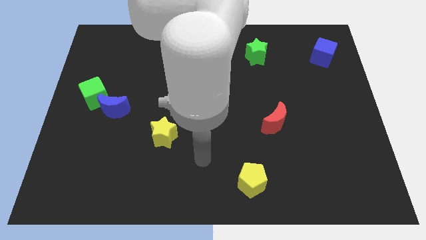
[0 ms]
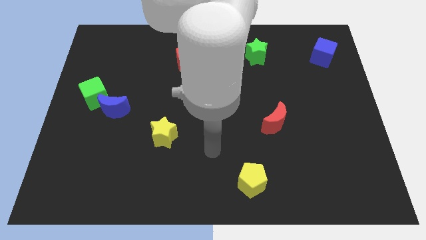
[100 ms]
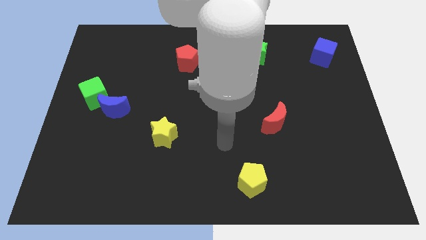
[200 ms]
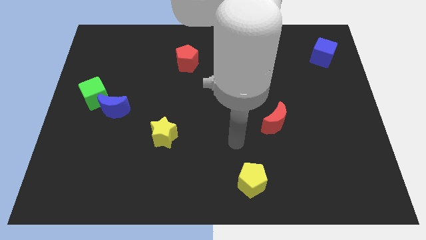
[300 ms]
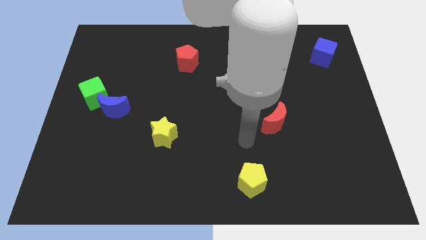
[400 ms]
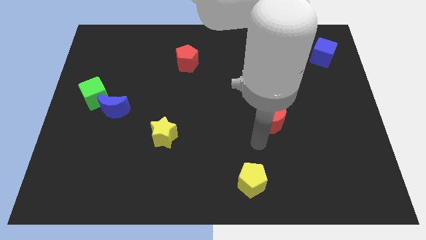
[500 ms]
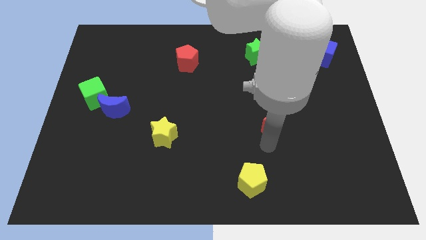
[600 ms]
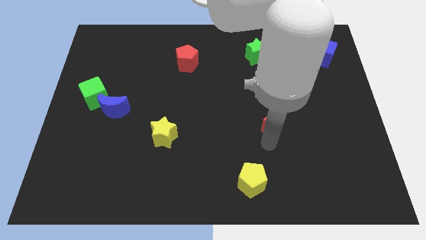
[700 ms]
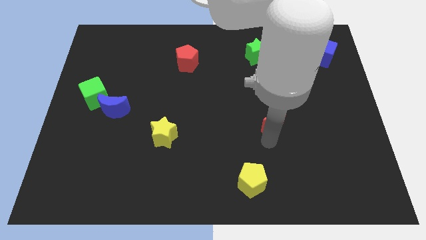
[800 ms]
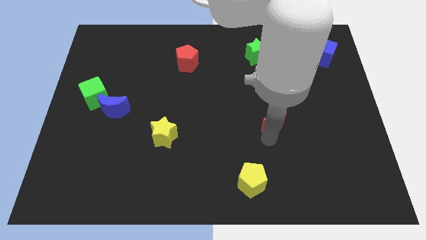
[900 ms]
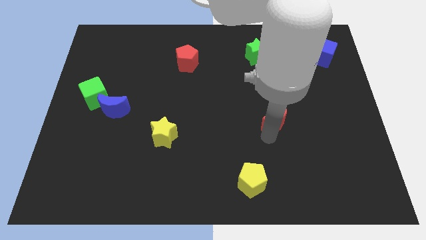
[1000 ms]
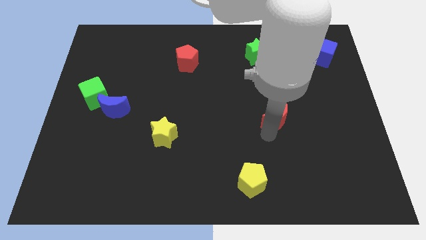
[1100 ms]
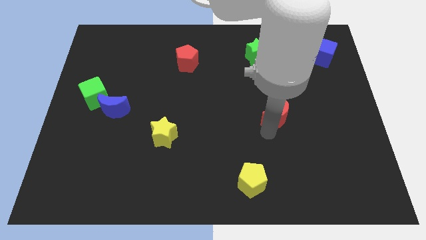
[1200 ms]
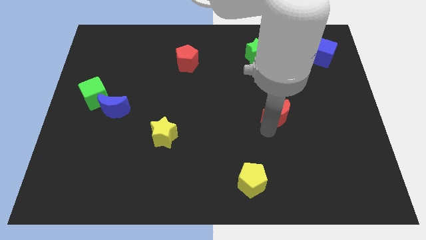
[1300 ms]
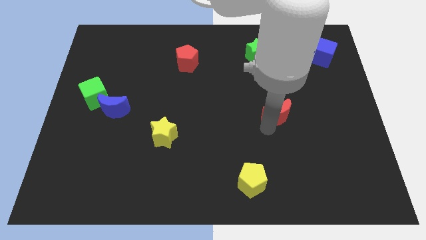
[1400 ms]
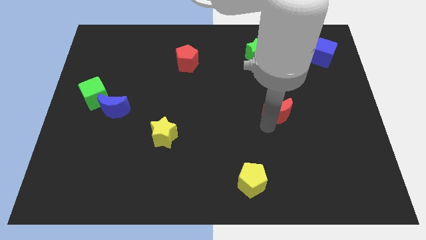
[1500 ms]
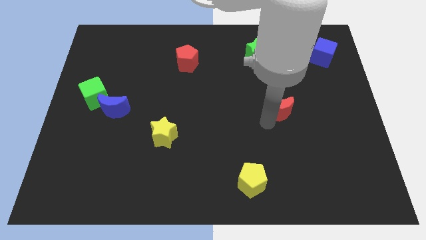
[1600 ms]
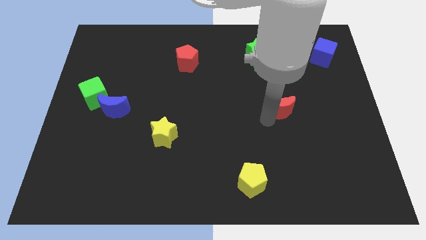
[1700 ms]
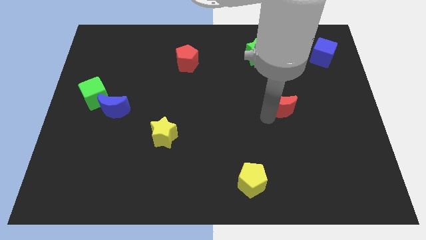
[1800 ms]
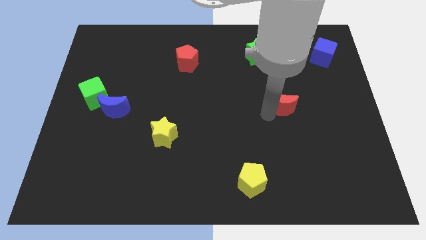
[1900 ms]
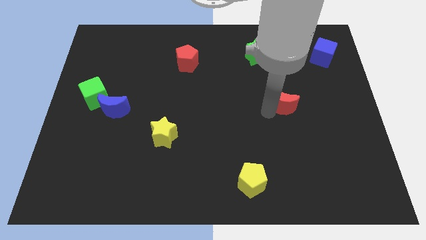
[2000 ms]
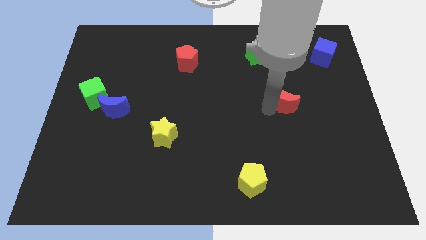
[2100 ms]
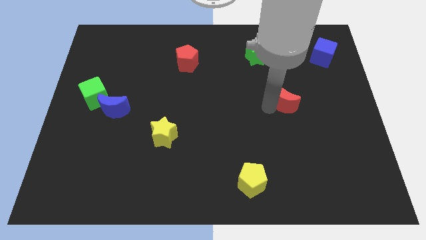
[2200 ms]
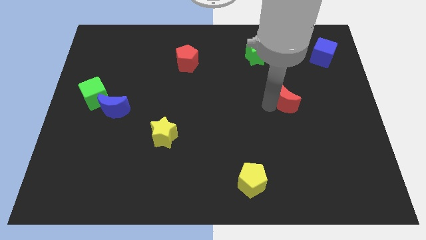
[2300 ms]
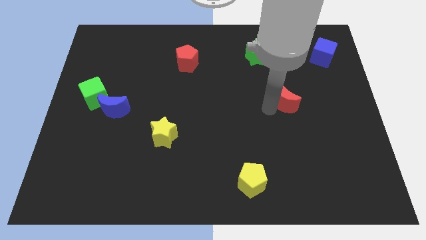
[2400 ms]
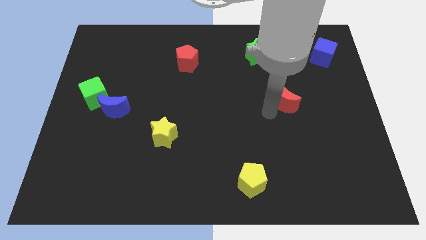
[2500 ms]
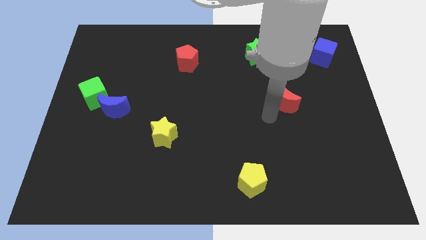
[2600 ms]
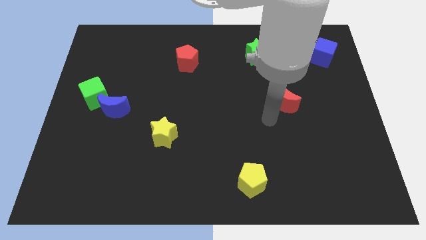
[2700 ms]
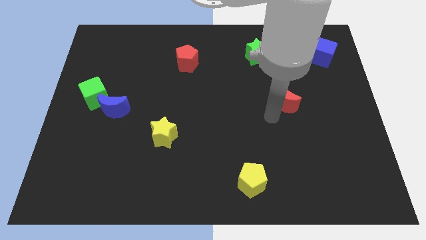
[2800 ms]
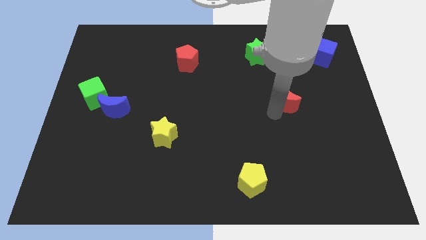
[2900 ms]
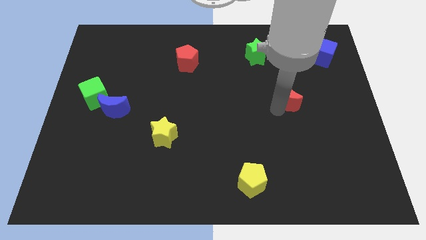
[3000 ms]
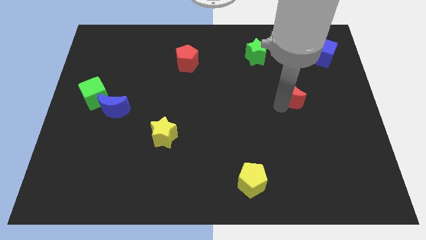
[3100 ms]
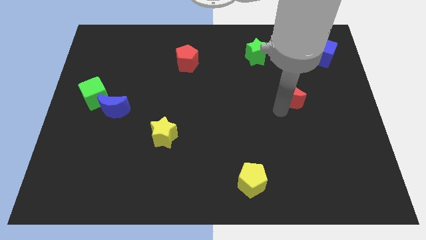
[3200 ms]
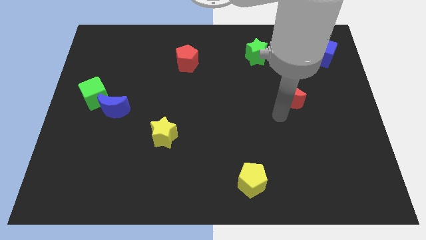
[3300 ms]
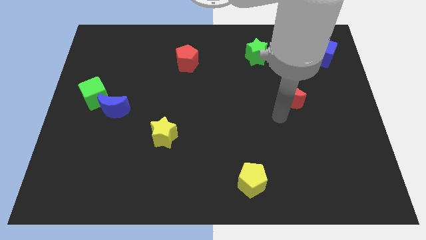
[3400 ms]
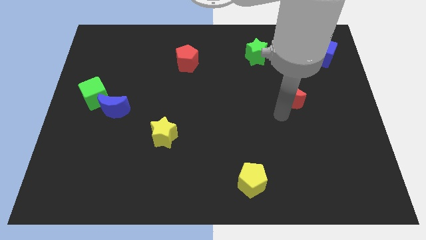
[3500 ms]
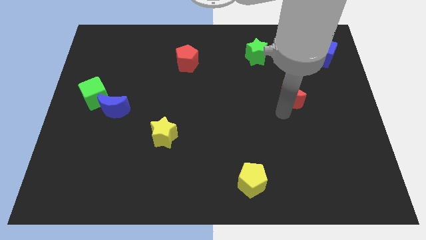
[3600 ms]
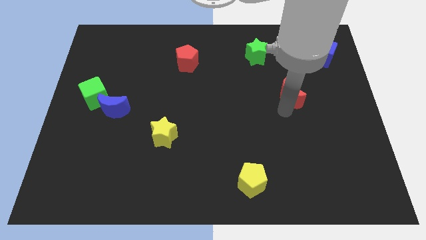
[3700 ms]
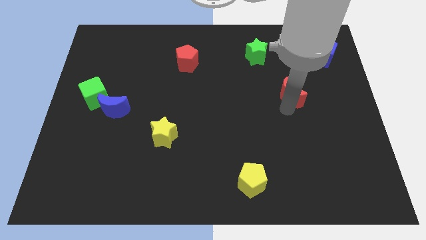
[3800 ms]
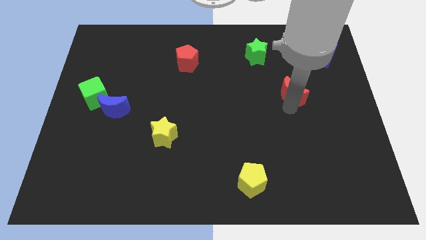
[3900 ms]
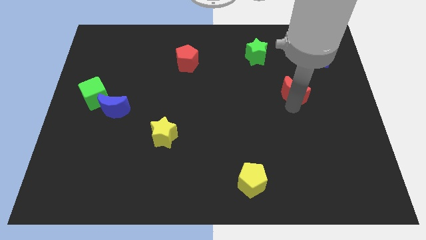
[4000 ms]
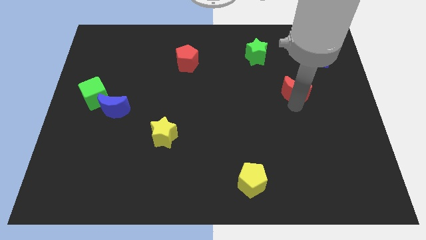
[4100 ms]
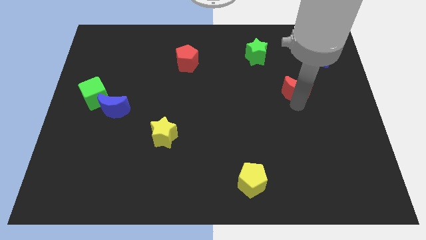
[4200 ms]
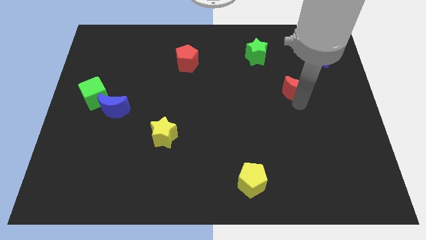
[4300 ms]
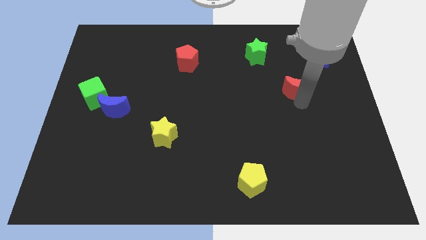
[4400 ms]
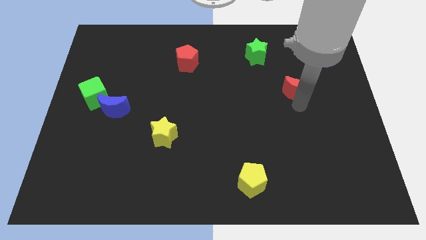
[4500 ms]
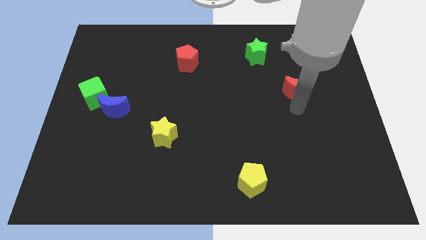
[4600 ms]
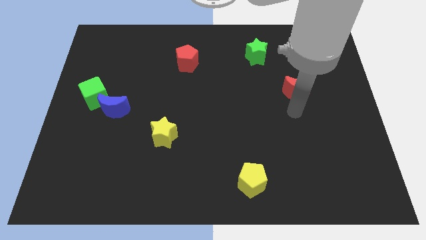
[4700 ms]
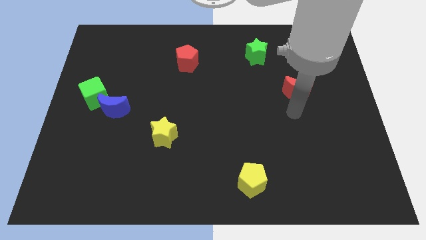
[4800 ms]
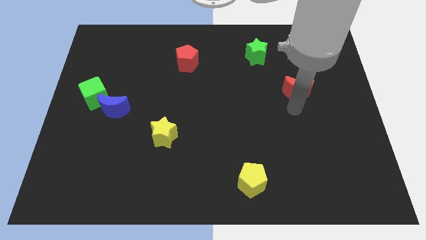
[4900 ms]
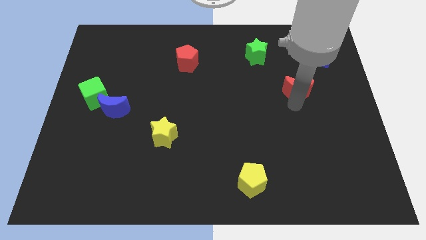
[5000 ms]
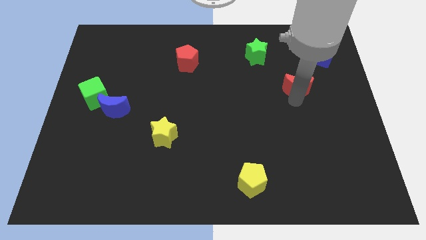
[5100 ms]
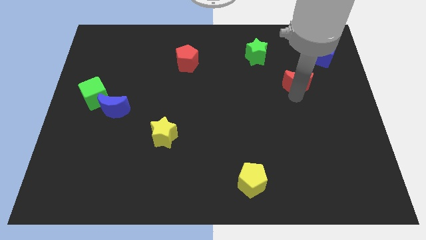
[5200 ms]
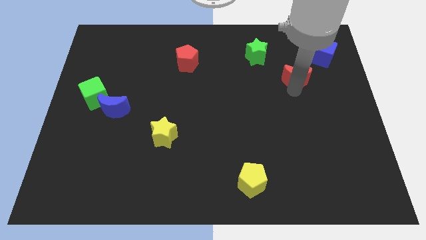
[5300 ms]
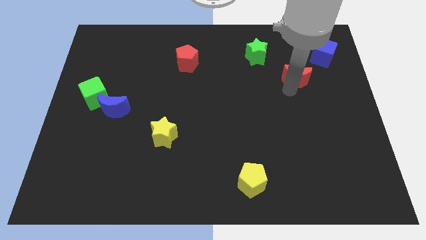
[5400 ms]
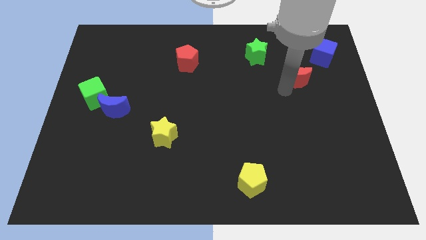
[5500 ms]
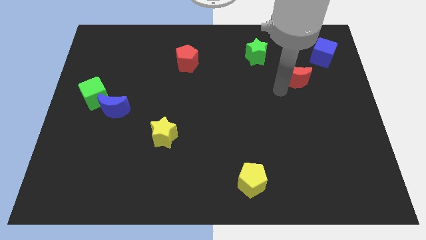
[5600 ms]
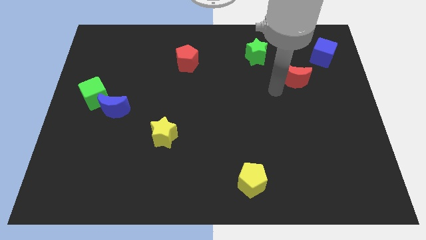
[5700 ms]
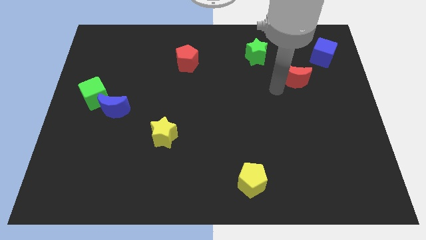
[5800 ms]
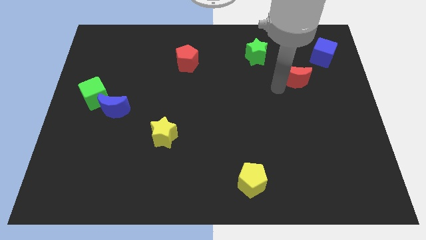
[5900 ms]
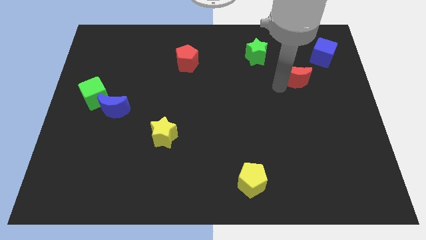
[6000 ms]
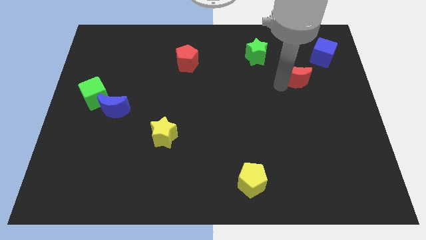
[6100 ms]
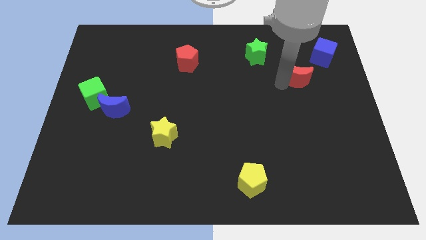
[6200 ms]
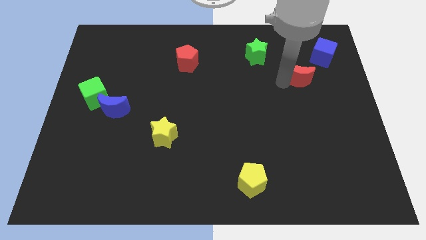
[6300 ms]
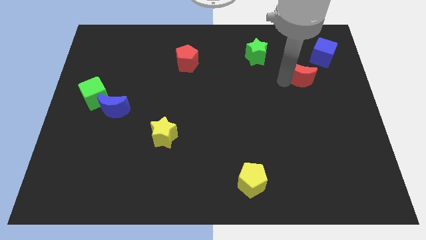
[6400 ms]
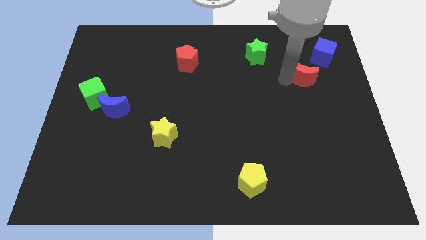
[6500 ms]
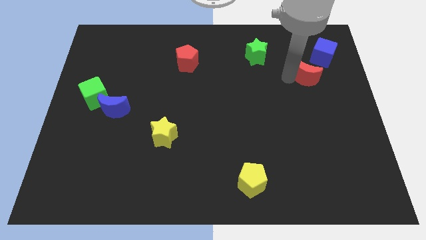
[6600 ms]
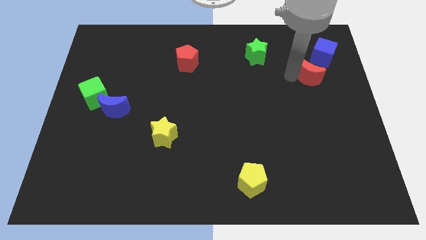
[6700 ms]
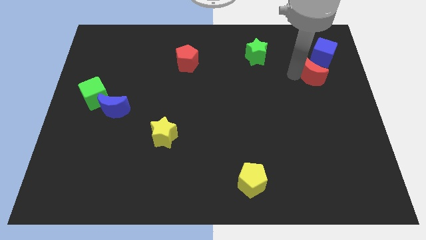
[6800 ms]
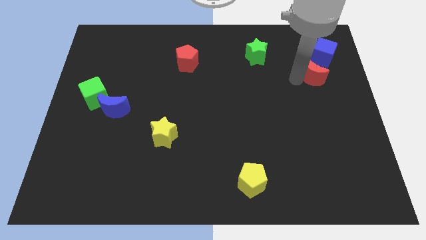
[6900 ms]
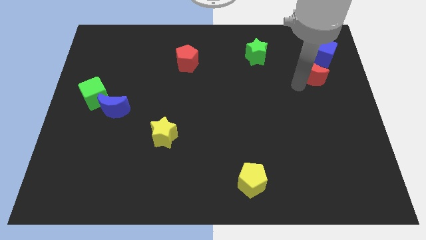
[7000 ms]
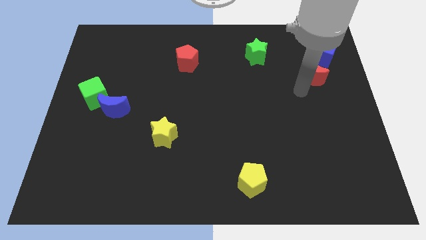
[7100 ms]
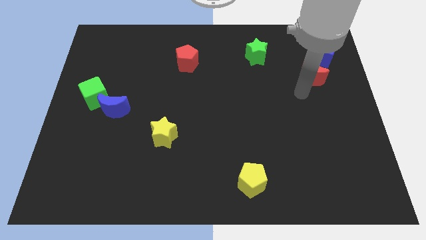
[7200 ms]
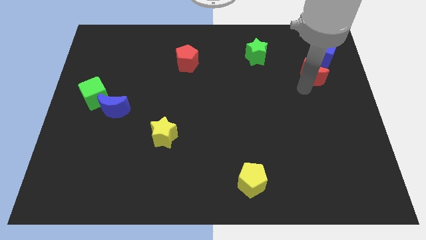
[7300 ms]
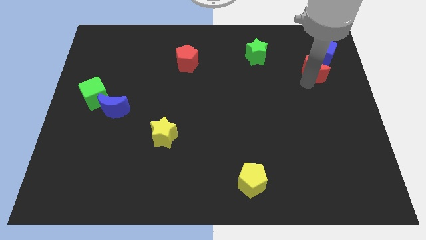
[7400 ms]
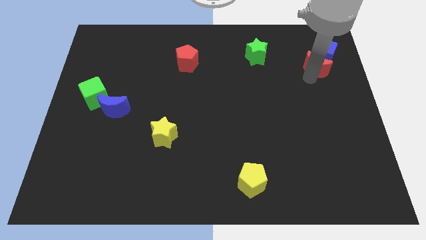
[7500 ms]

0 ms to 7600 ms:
slide the red moon to the blue cube
